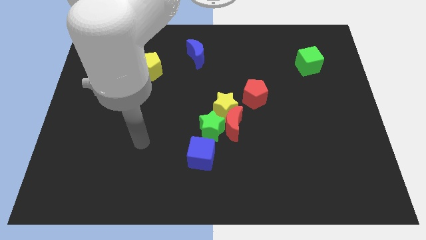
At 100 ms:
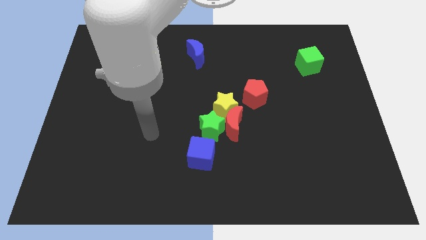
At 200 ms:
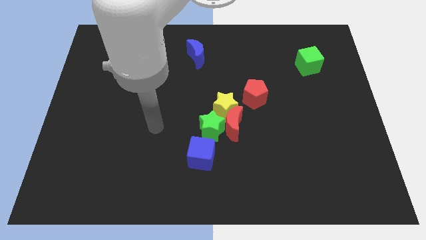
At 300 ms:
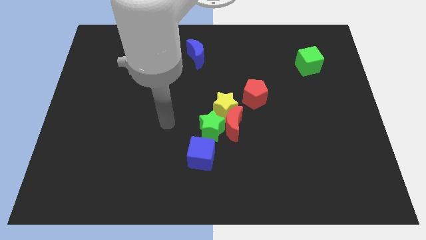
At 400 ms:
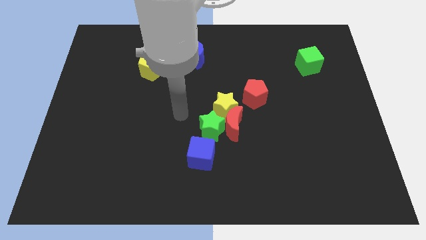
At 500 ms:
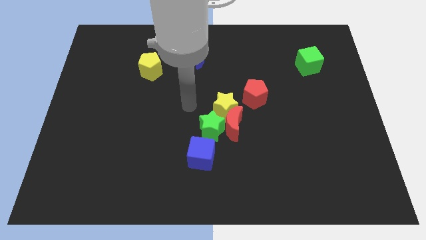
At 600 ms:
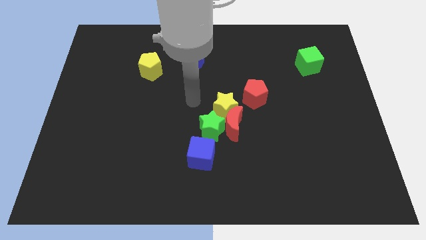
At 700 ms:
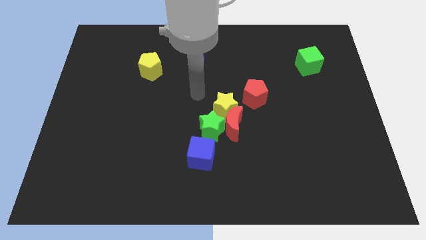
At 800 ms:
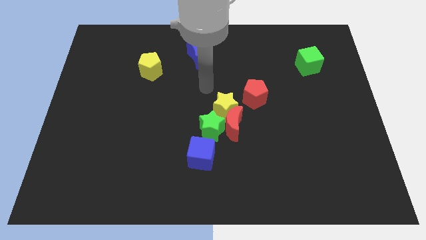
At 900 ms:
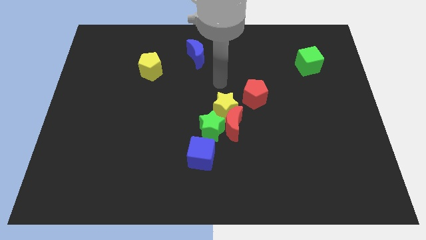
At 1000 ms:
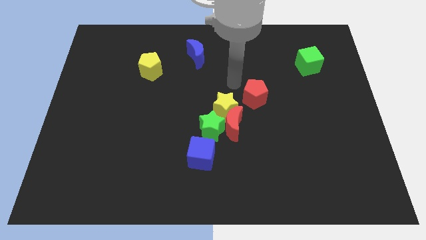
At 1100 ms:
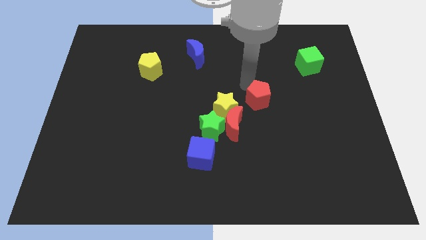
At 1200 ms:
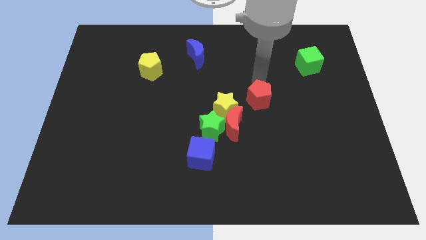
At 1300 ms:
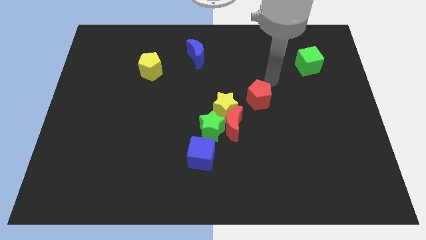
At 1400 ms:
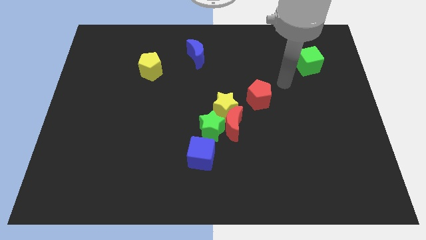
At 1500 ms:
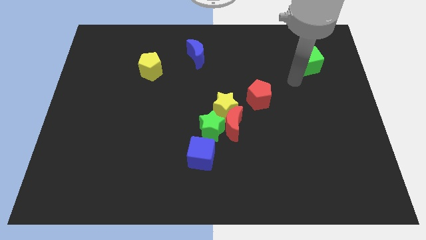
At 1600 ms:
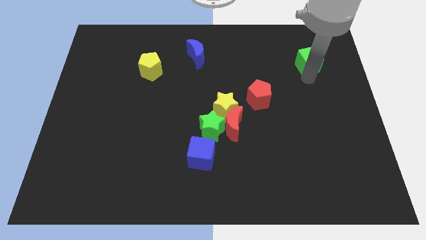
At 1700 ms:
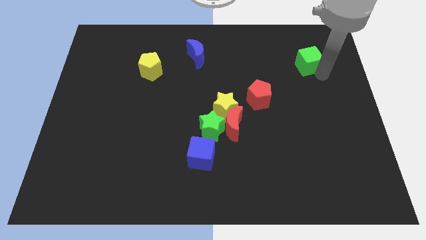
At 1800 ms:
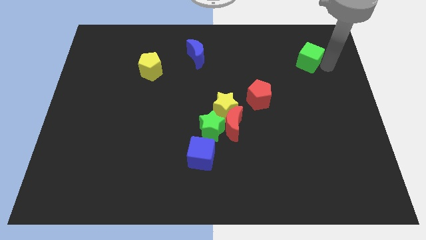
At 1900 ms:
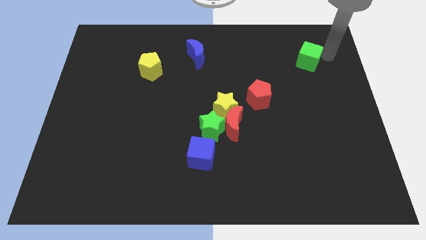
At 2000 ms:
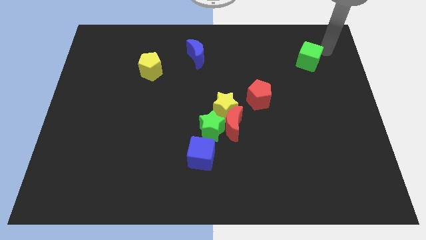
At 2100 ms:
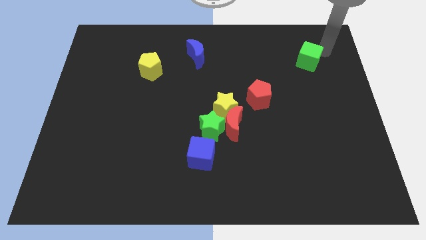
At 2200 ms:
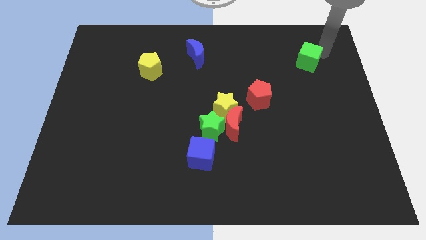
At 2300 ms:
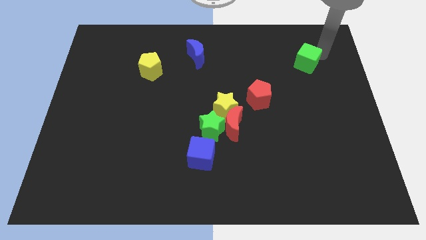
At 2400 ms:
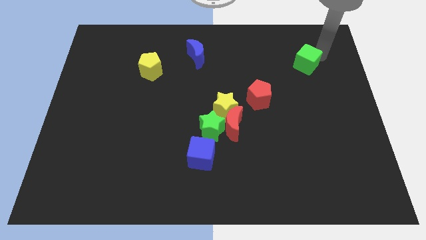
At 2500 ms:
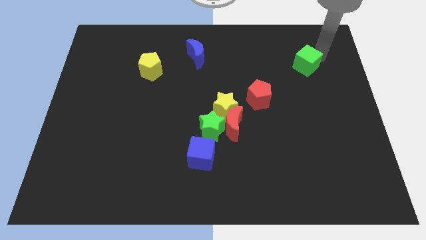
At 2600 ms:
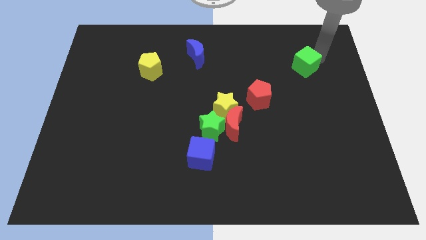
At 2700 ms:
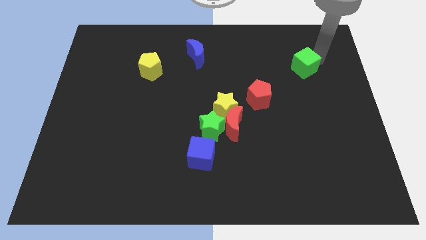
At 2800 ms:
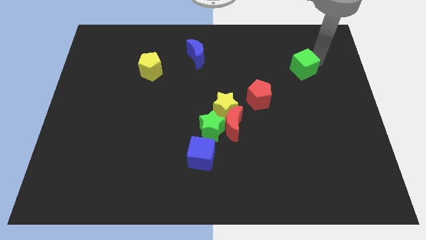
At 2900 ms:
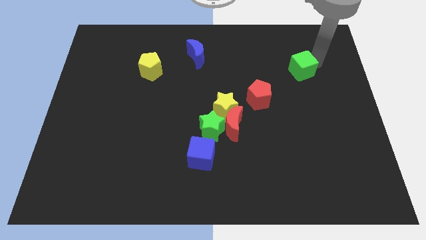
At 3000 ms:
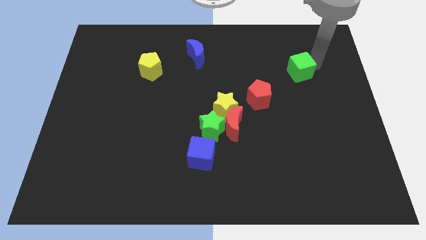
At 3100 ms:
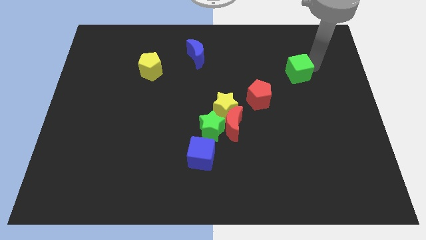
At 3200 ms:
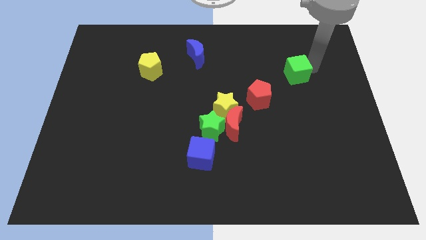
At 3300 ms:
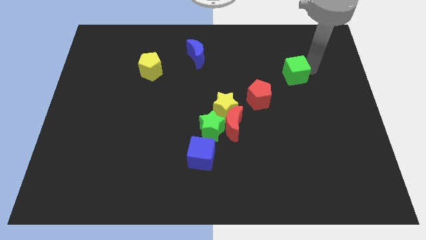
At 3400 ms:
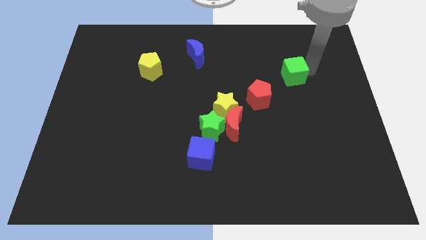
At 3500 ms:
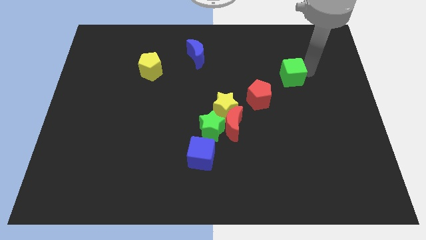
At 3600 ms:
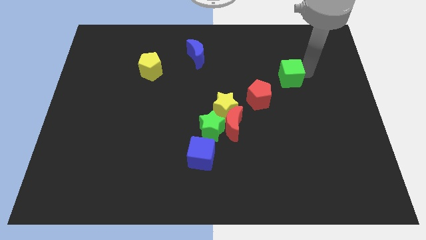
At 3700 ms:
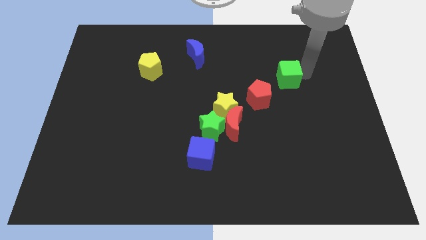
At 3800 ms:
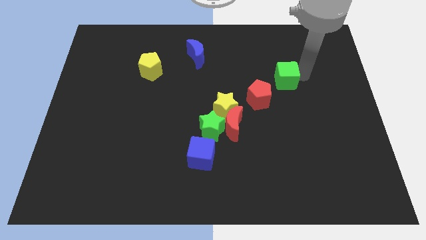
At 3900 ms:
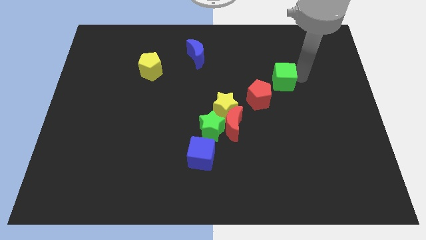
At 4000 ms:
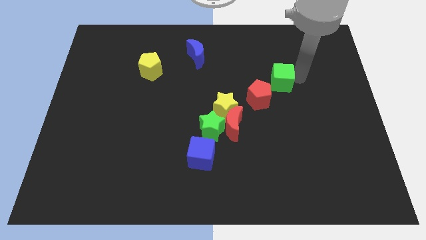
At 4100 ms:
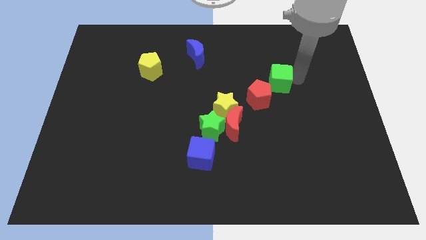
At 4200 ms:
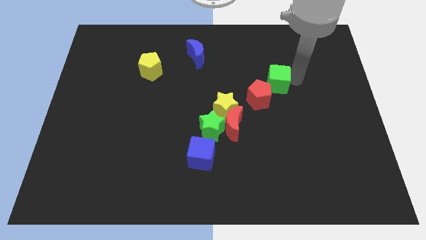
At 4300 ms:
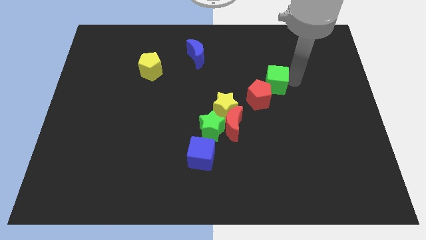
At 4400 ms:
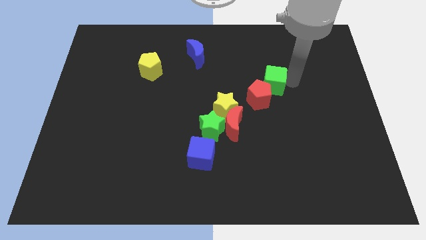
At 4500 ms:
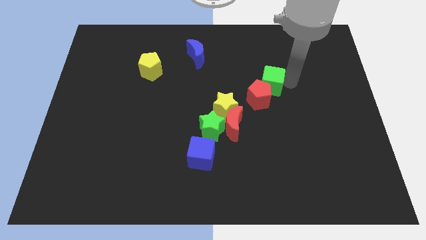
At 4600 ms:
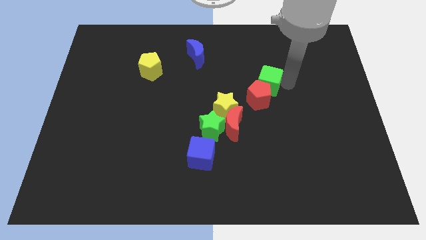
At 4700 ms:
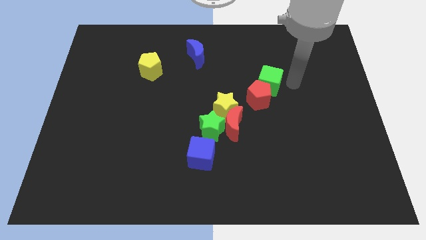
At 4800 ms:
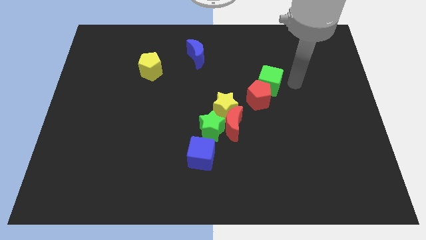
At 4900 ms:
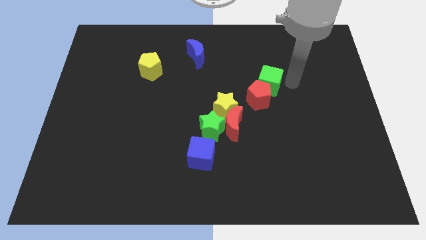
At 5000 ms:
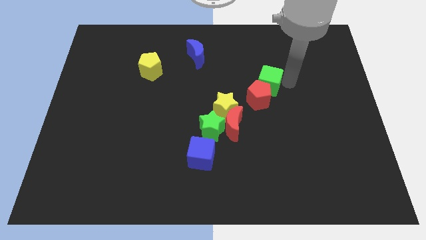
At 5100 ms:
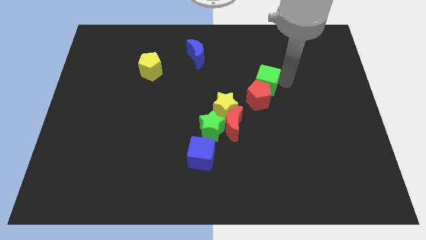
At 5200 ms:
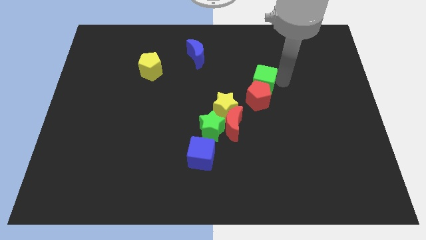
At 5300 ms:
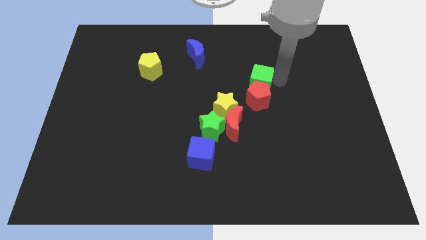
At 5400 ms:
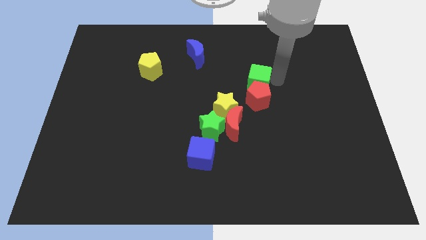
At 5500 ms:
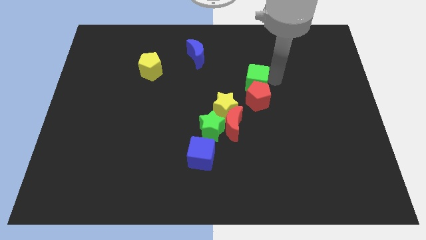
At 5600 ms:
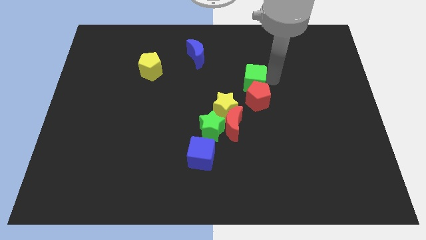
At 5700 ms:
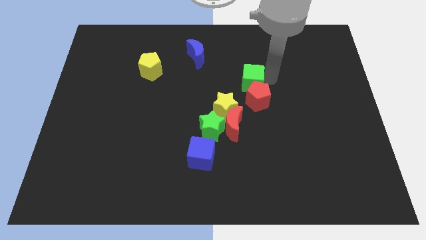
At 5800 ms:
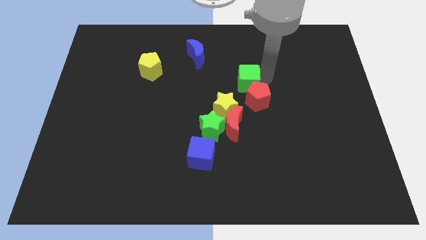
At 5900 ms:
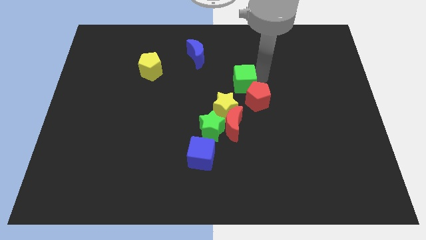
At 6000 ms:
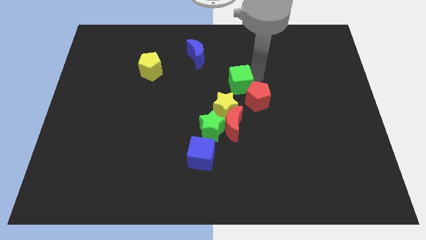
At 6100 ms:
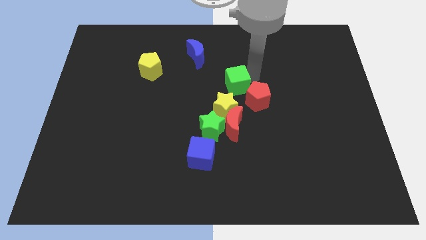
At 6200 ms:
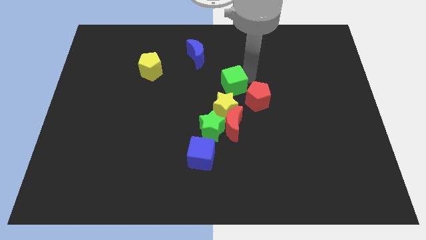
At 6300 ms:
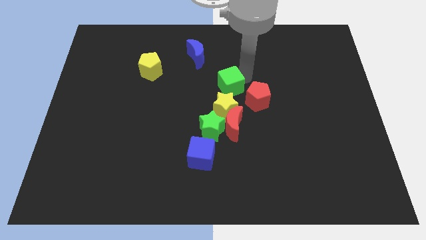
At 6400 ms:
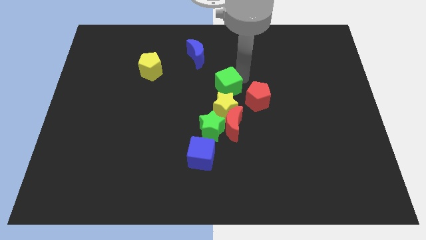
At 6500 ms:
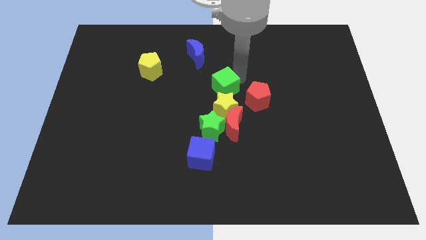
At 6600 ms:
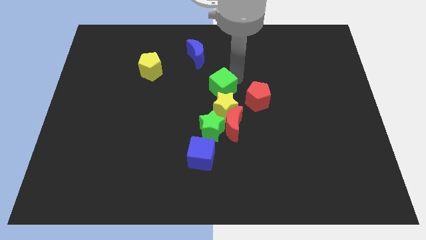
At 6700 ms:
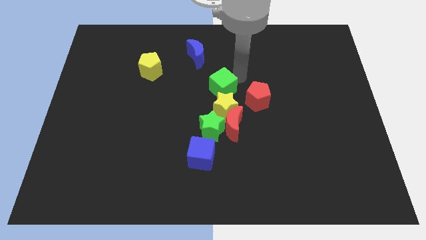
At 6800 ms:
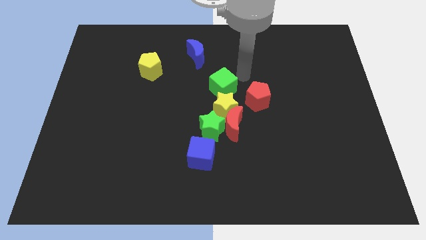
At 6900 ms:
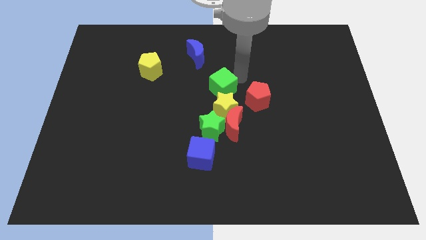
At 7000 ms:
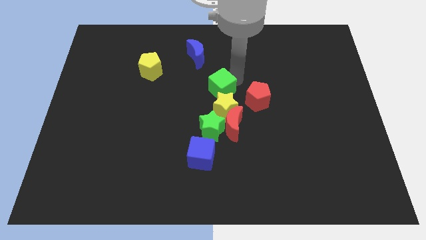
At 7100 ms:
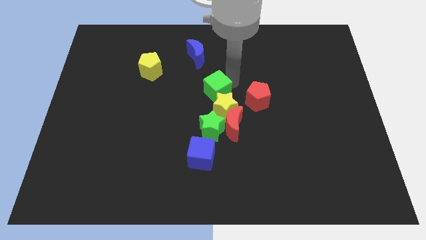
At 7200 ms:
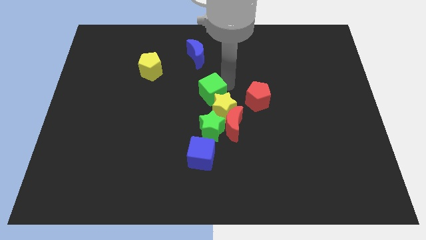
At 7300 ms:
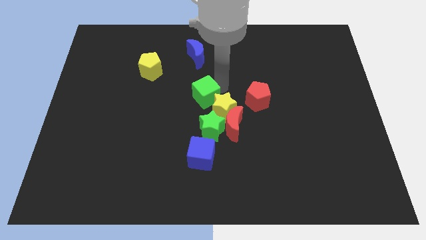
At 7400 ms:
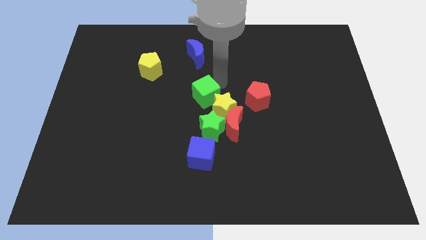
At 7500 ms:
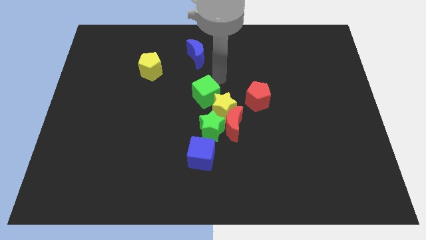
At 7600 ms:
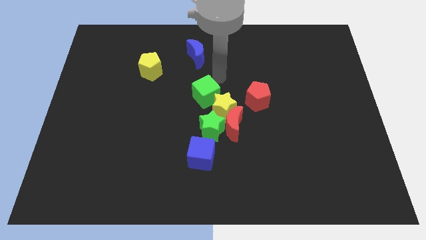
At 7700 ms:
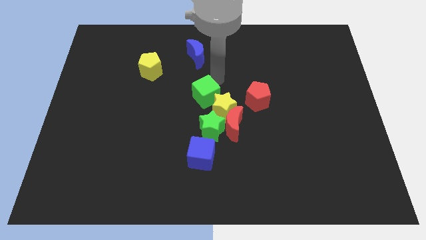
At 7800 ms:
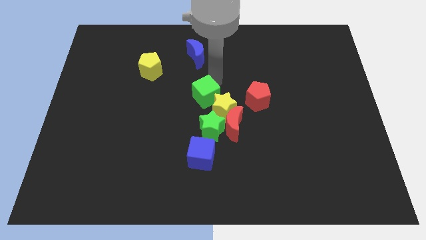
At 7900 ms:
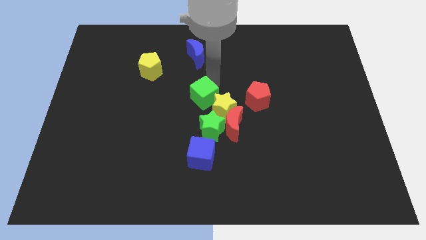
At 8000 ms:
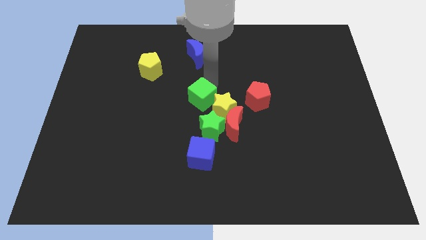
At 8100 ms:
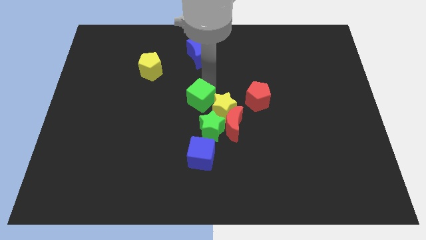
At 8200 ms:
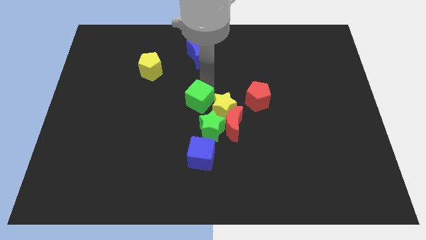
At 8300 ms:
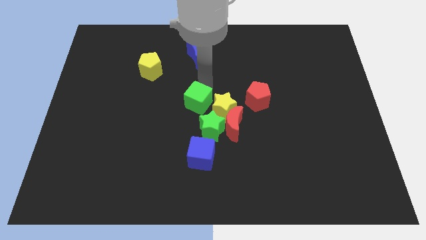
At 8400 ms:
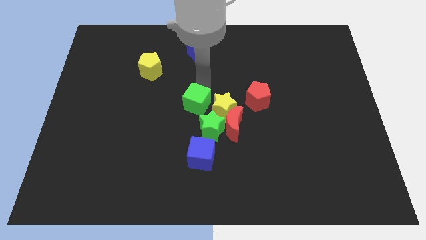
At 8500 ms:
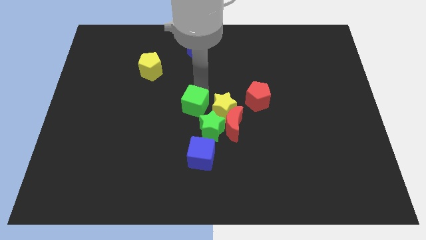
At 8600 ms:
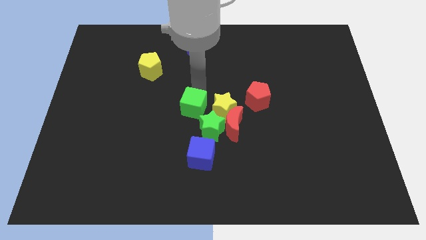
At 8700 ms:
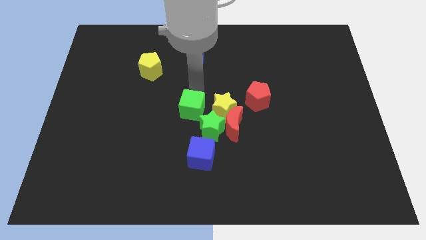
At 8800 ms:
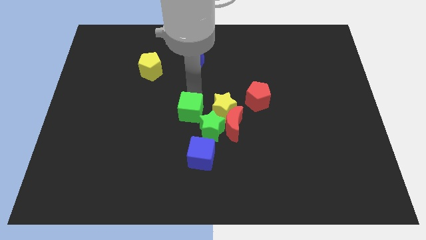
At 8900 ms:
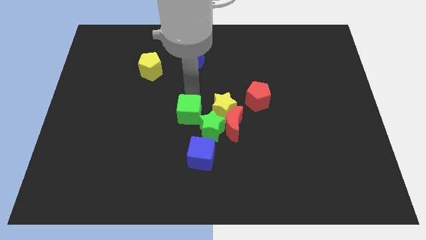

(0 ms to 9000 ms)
slide the green cube to the bottom left of the yellow star
